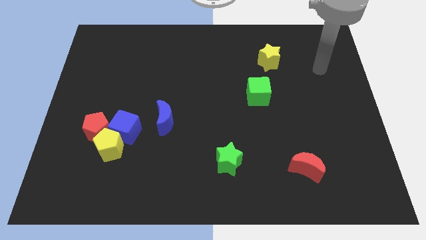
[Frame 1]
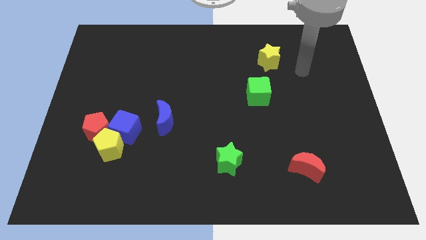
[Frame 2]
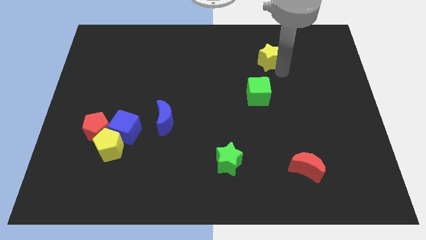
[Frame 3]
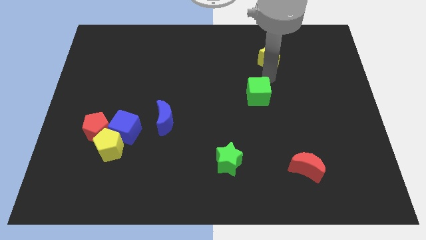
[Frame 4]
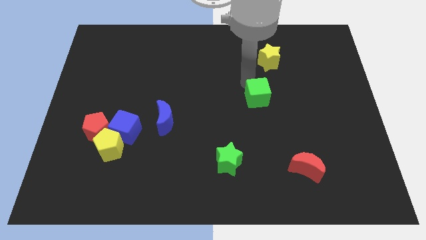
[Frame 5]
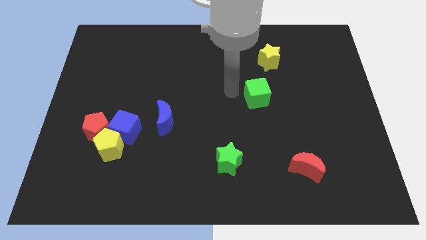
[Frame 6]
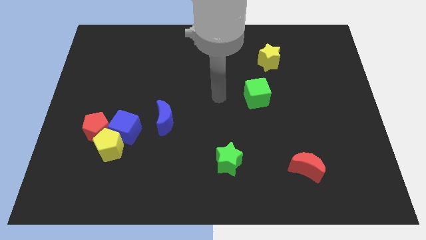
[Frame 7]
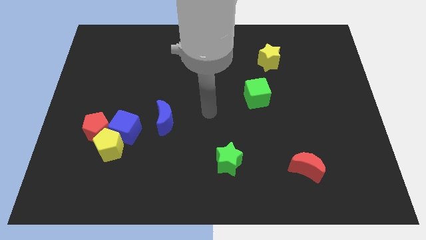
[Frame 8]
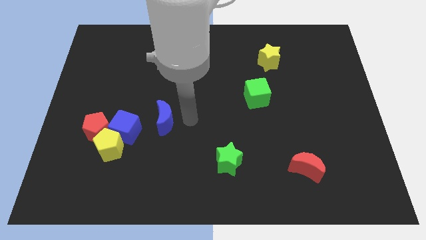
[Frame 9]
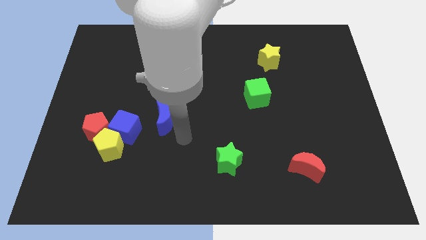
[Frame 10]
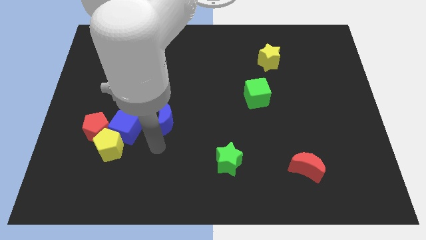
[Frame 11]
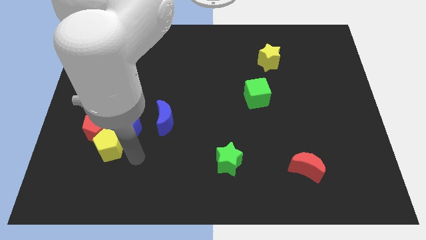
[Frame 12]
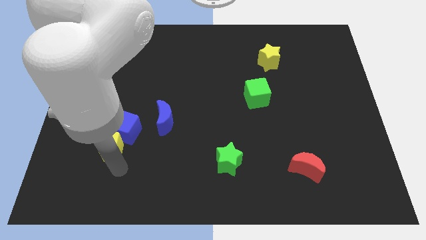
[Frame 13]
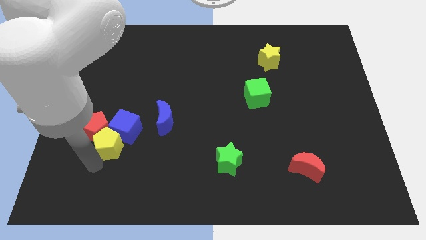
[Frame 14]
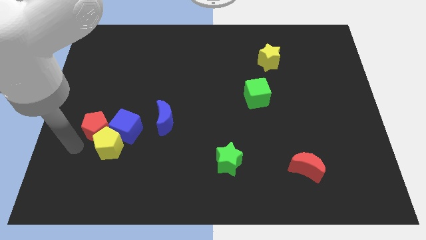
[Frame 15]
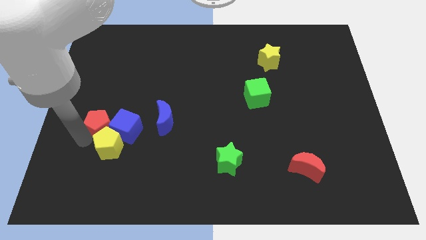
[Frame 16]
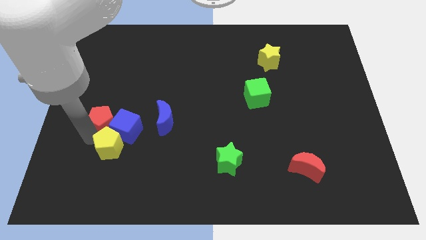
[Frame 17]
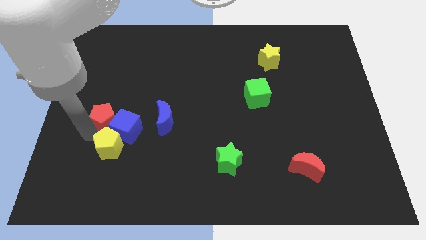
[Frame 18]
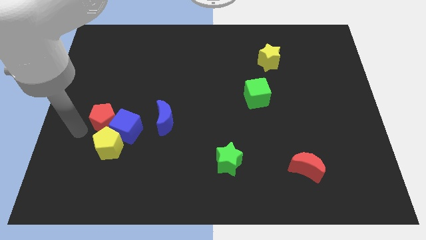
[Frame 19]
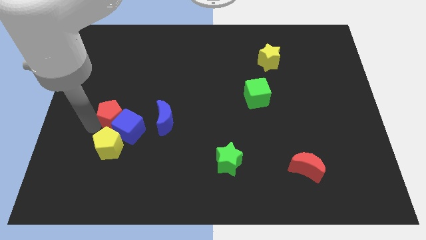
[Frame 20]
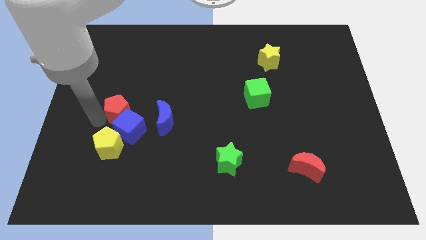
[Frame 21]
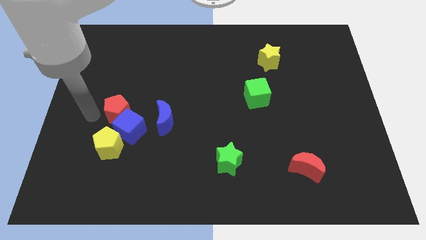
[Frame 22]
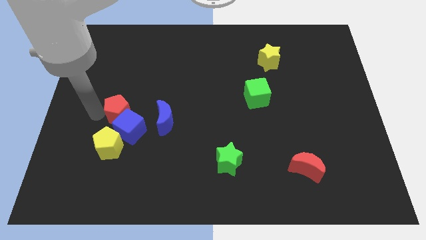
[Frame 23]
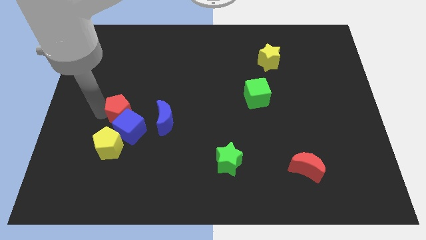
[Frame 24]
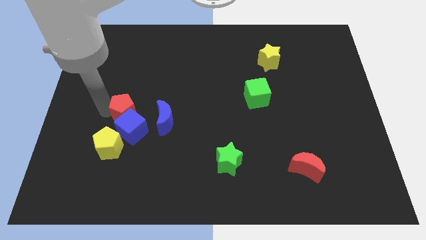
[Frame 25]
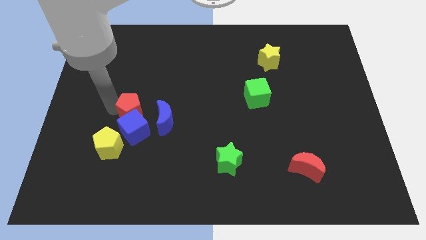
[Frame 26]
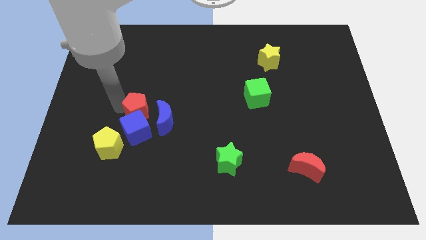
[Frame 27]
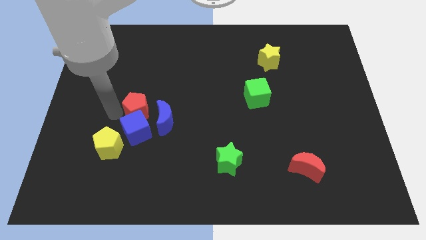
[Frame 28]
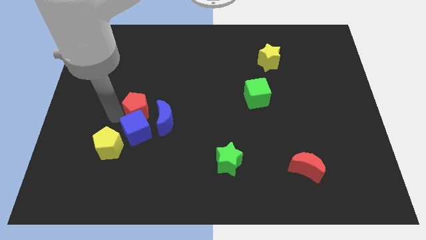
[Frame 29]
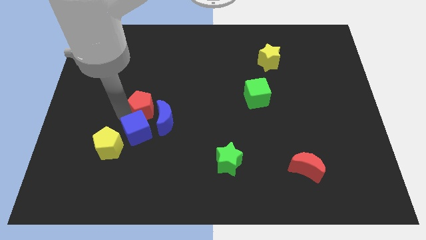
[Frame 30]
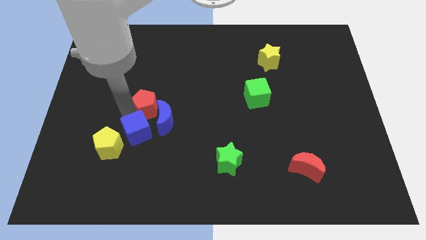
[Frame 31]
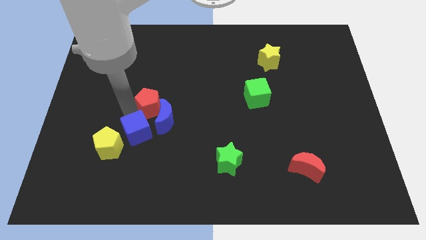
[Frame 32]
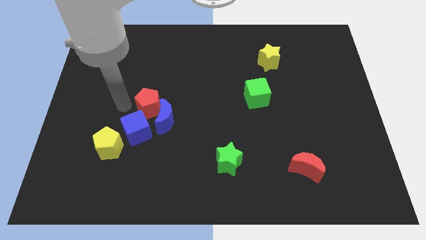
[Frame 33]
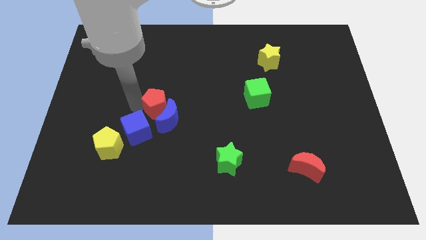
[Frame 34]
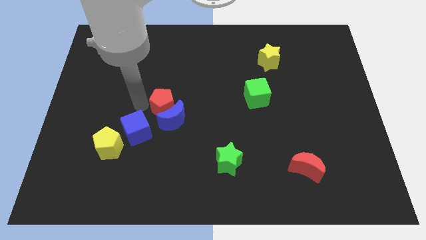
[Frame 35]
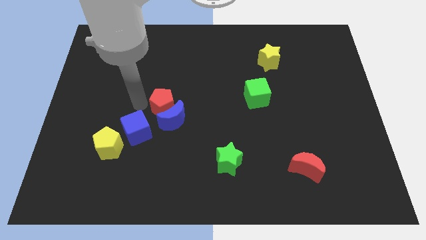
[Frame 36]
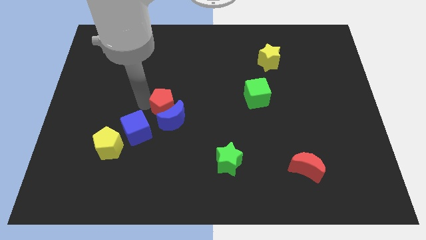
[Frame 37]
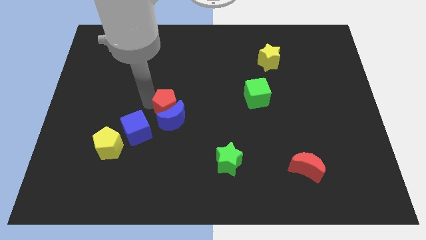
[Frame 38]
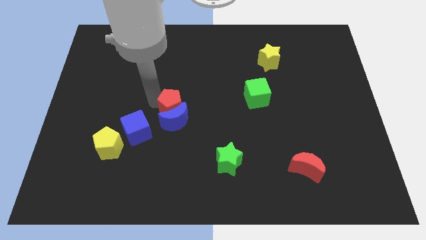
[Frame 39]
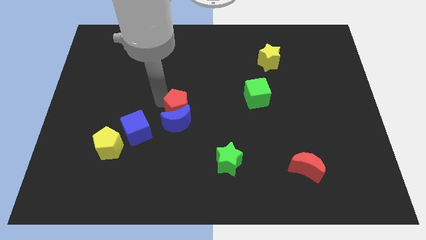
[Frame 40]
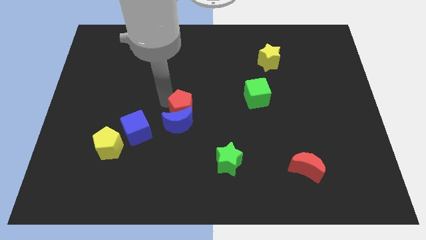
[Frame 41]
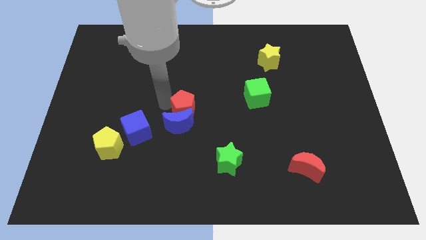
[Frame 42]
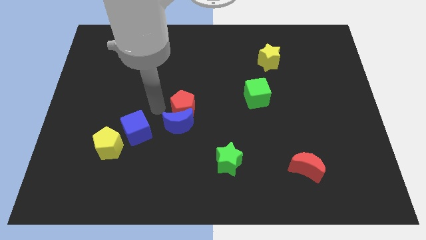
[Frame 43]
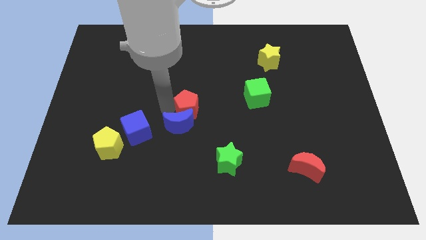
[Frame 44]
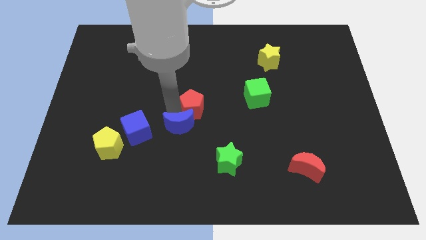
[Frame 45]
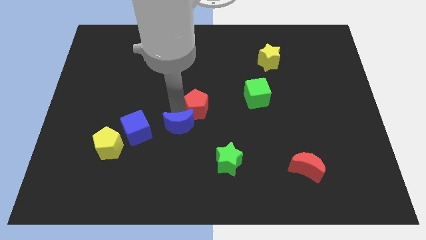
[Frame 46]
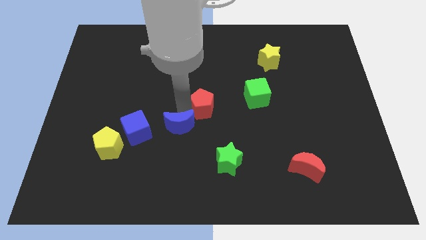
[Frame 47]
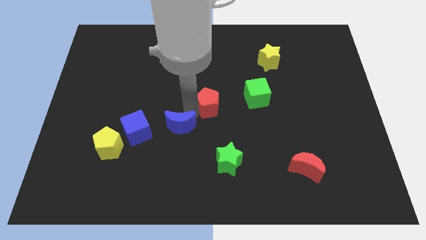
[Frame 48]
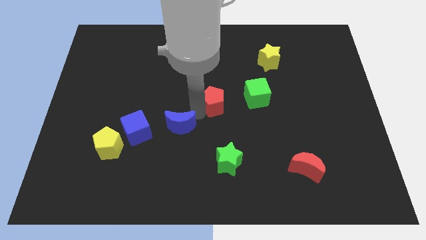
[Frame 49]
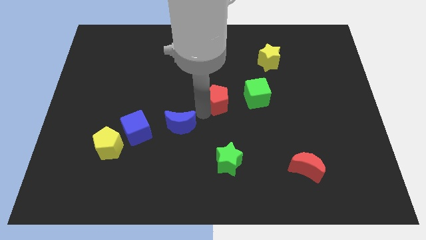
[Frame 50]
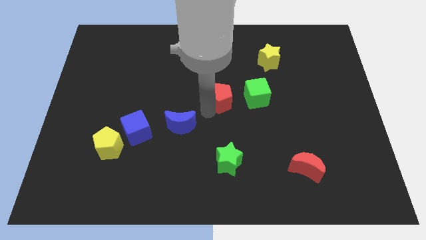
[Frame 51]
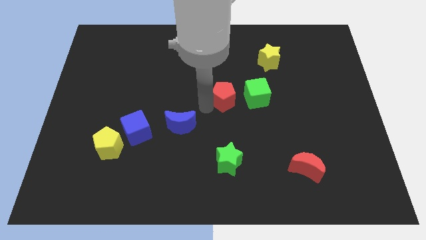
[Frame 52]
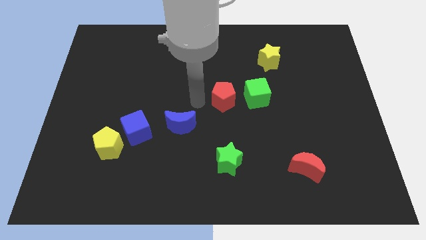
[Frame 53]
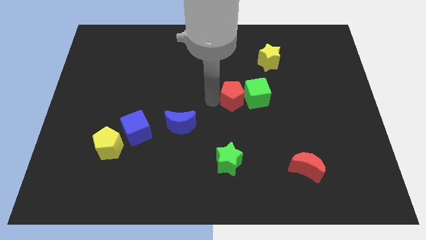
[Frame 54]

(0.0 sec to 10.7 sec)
push the red pentagon towards the green cube

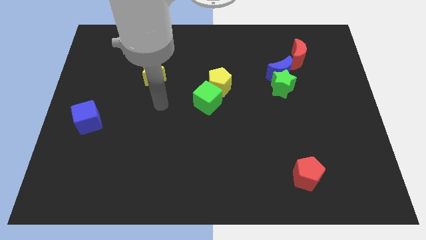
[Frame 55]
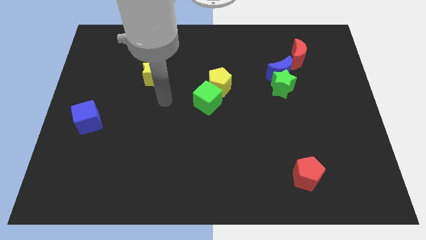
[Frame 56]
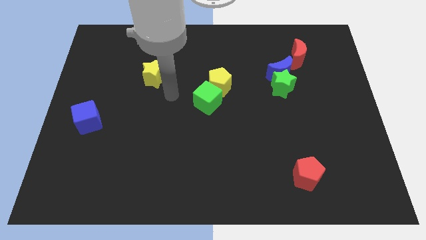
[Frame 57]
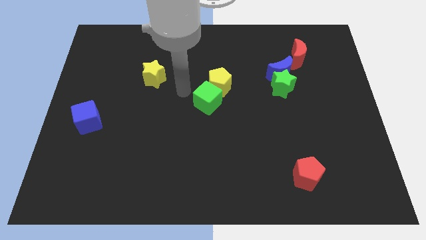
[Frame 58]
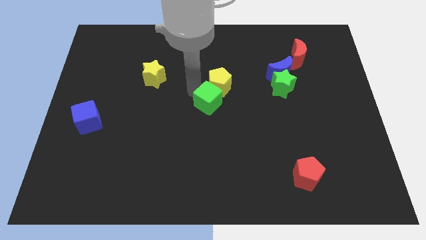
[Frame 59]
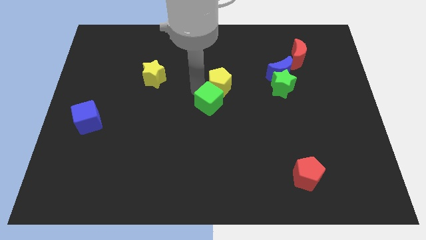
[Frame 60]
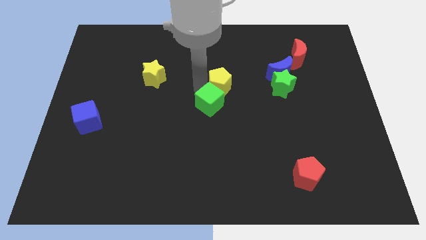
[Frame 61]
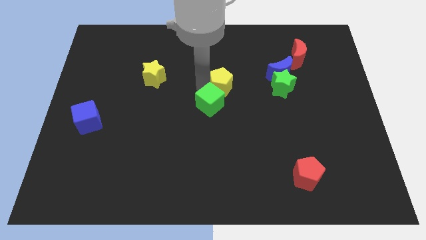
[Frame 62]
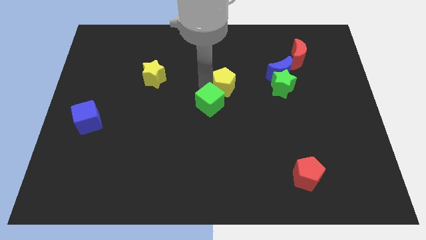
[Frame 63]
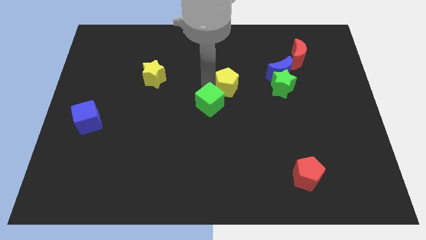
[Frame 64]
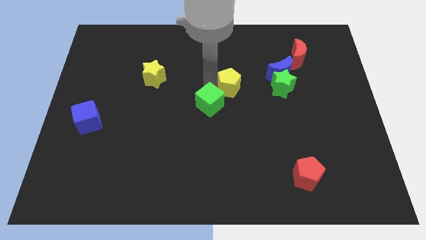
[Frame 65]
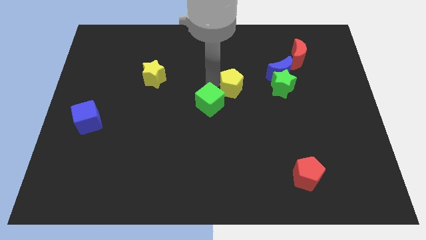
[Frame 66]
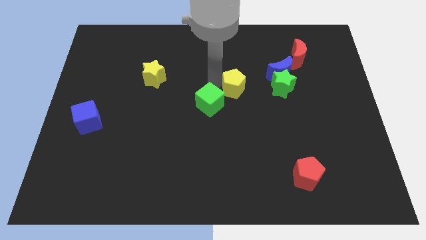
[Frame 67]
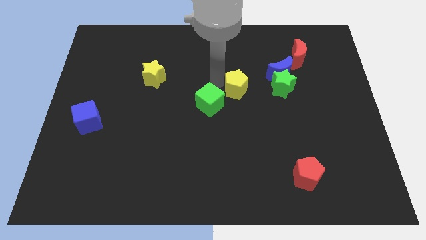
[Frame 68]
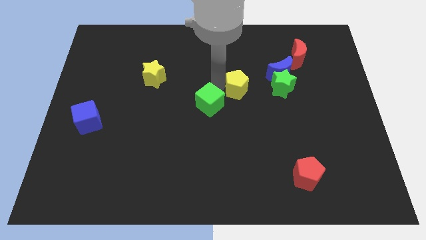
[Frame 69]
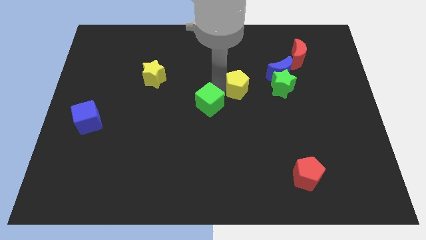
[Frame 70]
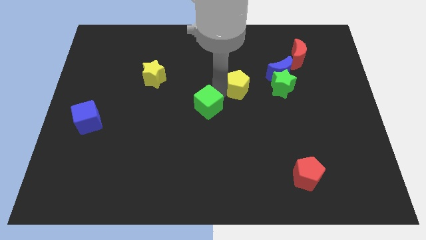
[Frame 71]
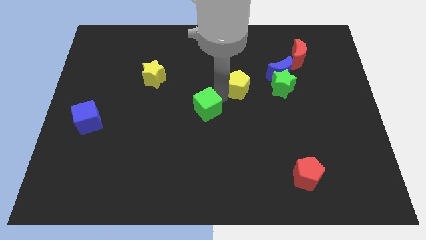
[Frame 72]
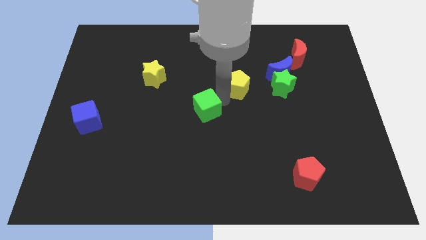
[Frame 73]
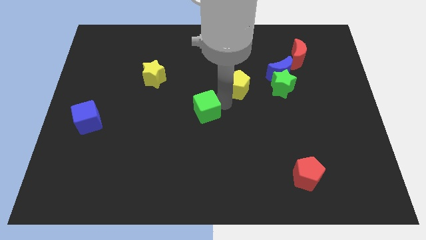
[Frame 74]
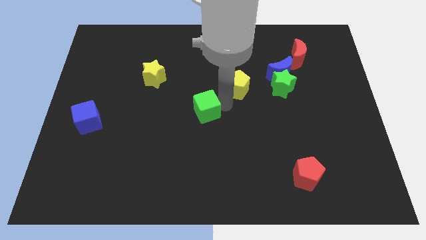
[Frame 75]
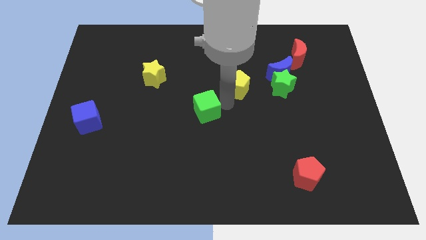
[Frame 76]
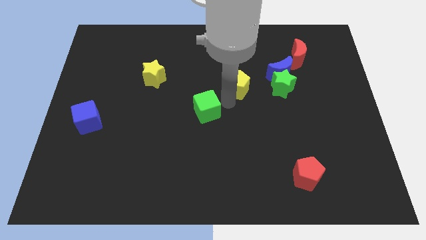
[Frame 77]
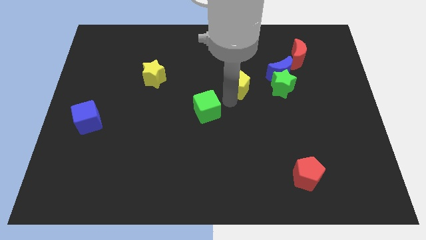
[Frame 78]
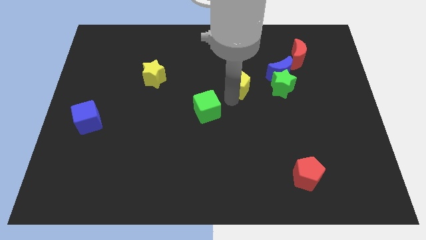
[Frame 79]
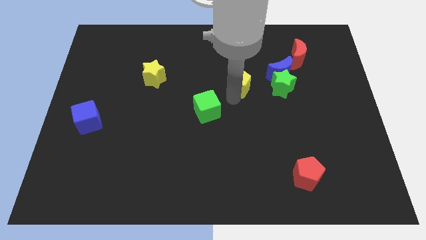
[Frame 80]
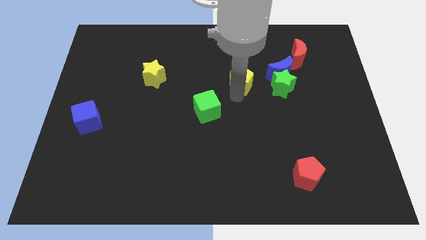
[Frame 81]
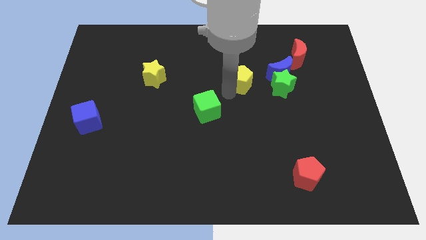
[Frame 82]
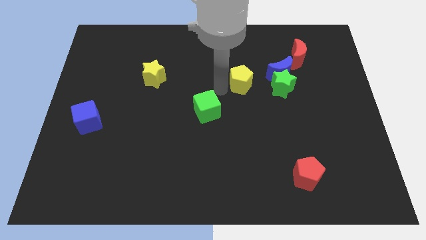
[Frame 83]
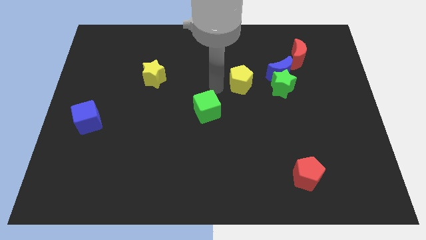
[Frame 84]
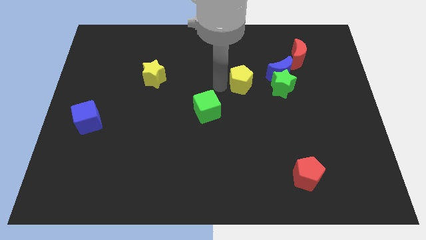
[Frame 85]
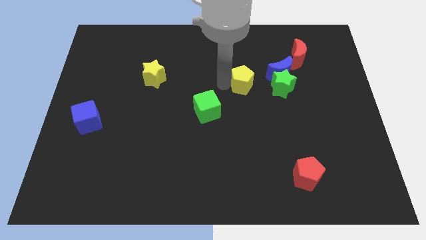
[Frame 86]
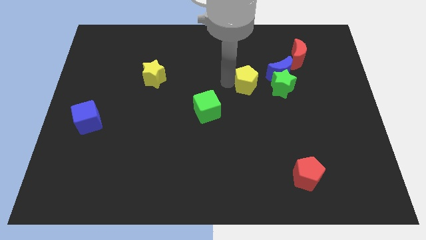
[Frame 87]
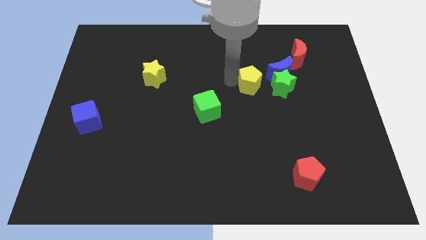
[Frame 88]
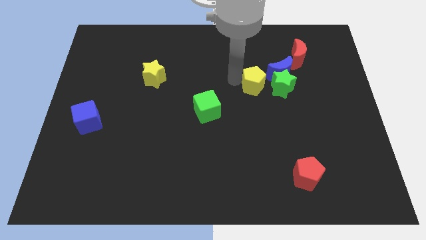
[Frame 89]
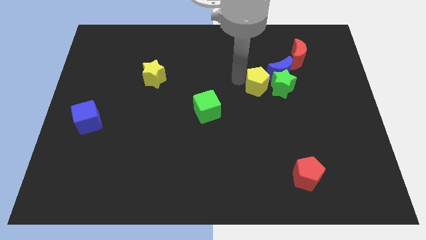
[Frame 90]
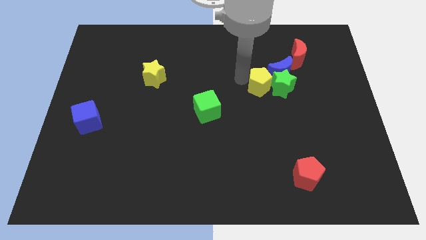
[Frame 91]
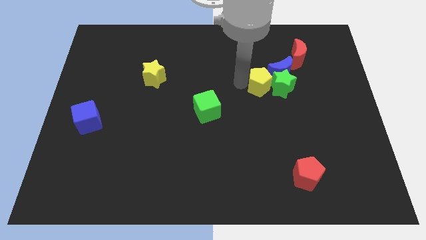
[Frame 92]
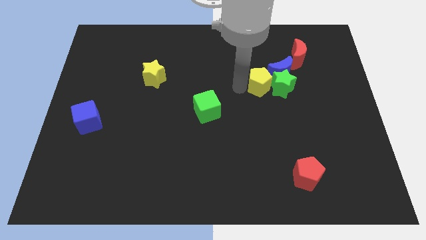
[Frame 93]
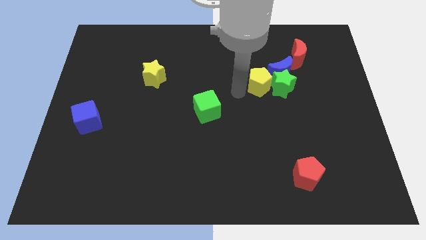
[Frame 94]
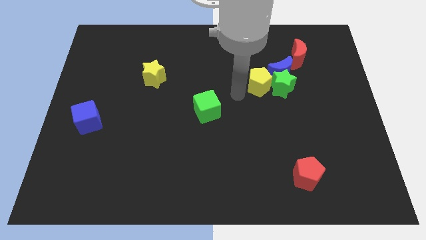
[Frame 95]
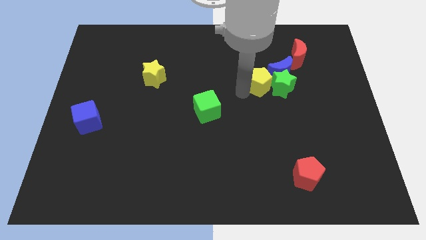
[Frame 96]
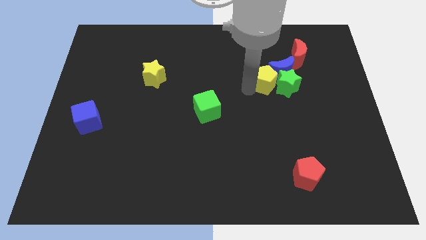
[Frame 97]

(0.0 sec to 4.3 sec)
slide the yellow pentagon close to the blue moon
